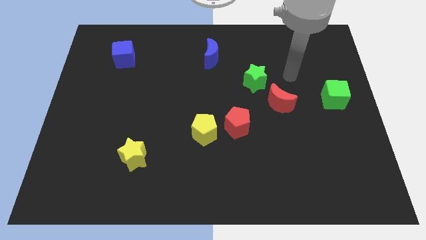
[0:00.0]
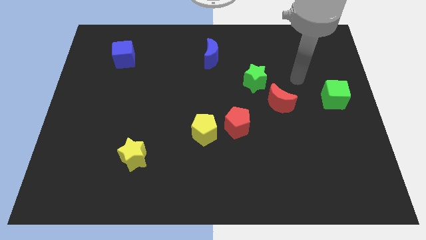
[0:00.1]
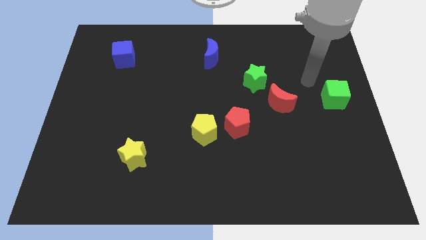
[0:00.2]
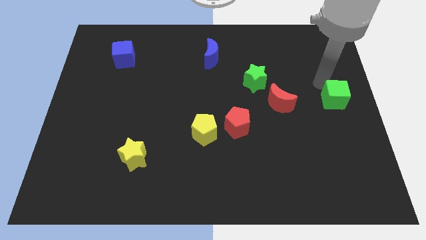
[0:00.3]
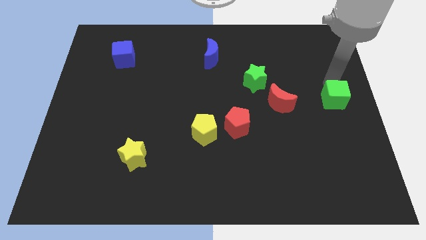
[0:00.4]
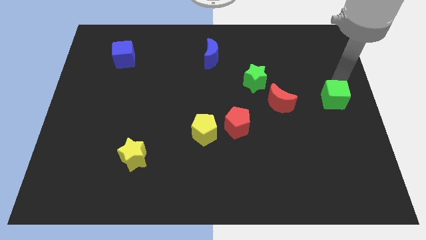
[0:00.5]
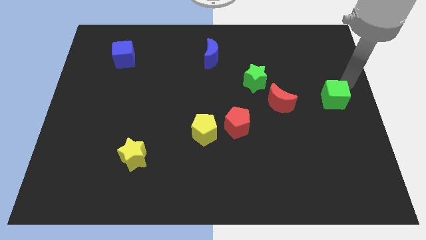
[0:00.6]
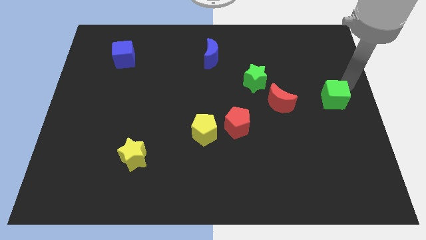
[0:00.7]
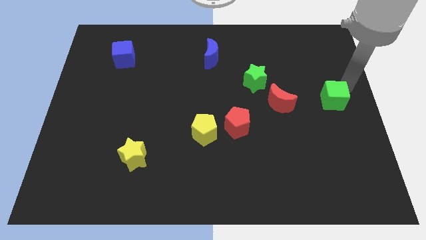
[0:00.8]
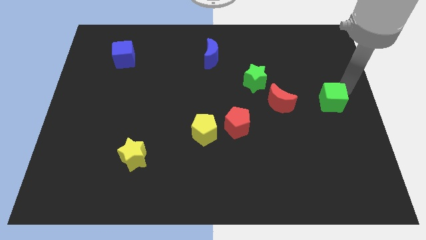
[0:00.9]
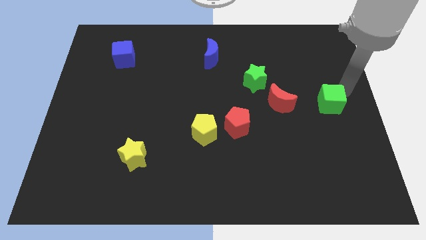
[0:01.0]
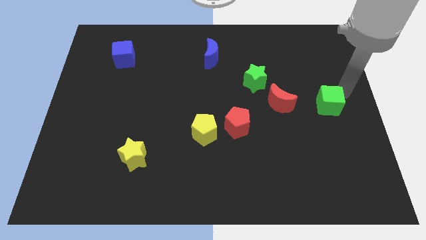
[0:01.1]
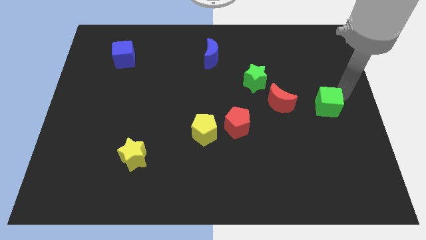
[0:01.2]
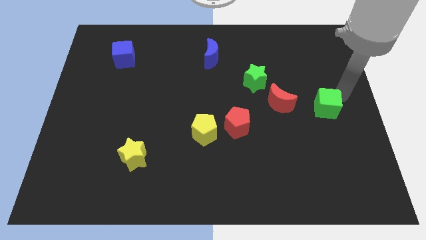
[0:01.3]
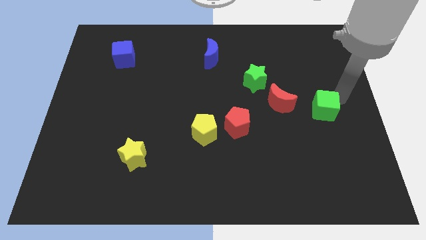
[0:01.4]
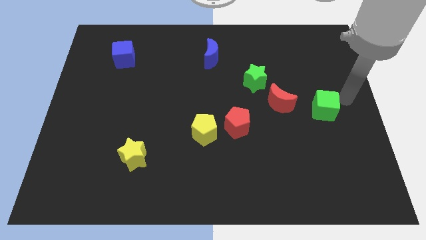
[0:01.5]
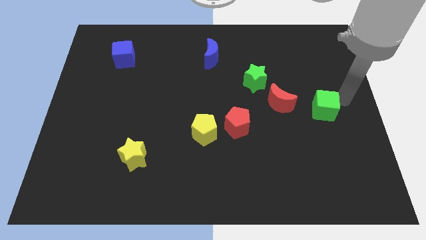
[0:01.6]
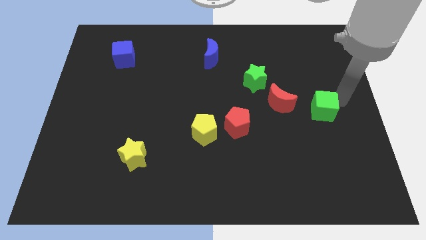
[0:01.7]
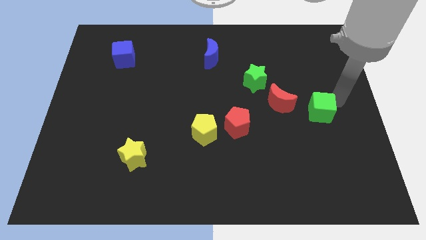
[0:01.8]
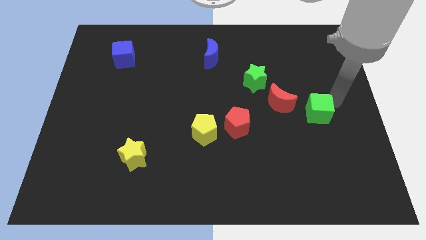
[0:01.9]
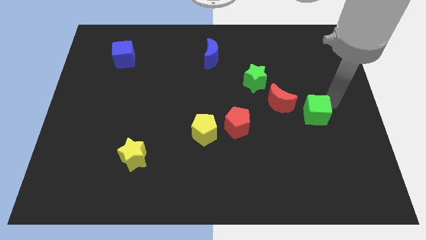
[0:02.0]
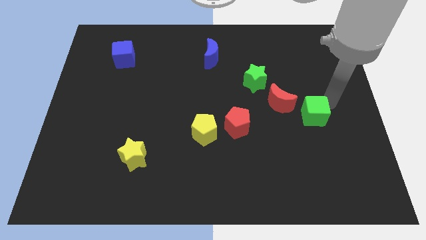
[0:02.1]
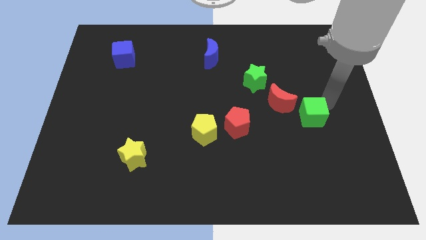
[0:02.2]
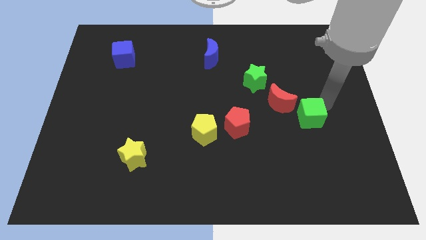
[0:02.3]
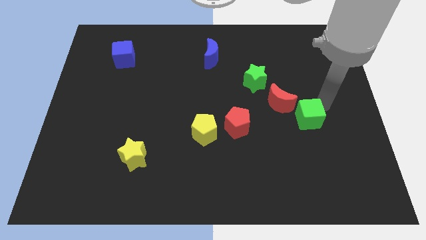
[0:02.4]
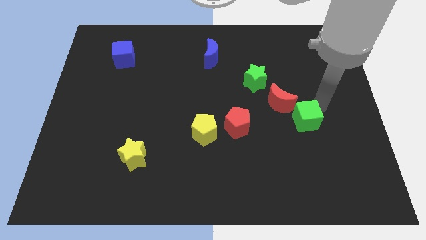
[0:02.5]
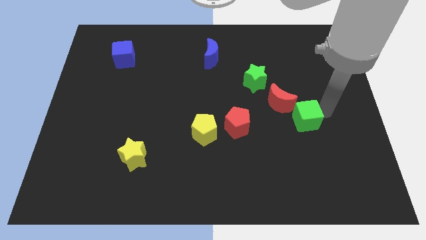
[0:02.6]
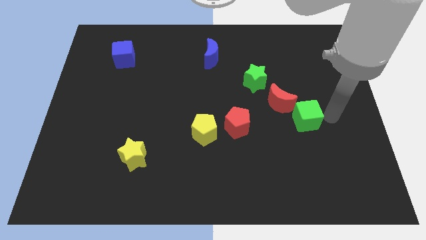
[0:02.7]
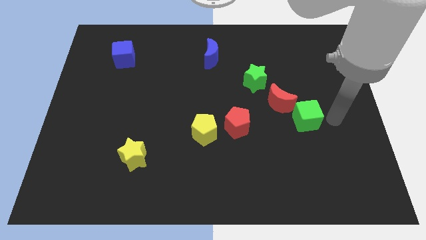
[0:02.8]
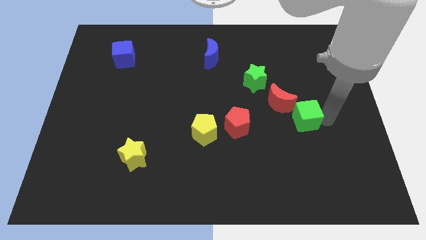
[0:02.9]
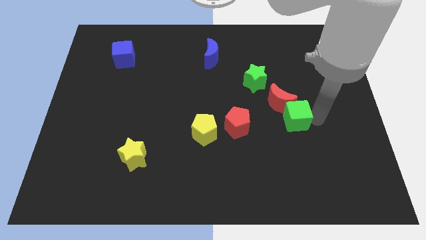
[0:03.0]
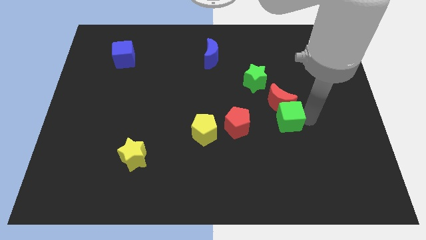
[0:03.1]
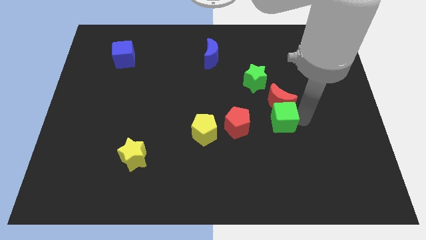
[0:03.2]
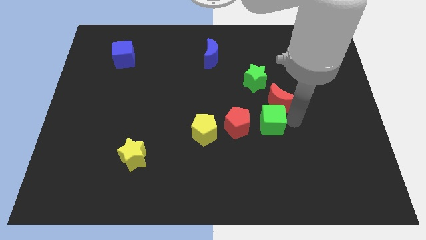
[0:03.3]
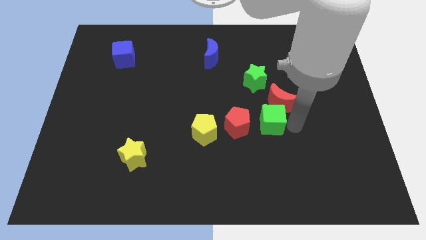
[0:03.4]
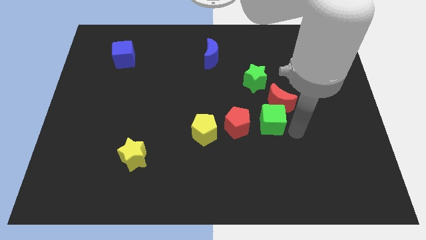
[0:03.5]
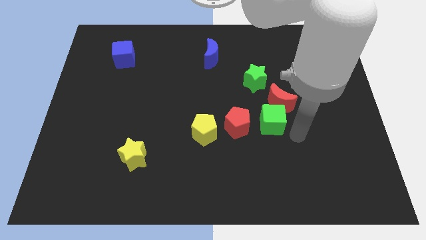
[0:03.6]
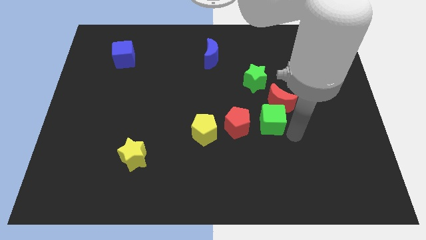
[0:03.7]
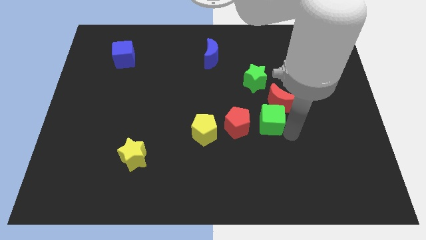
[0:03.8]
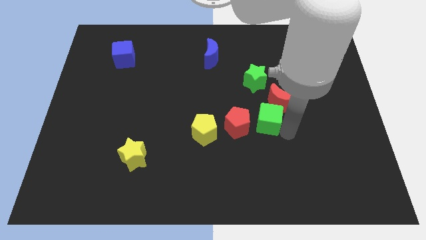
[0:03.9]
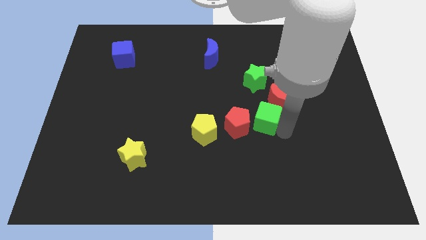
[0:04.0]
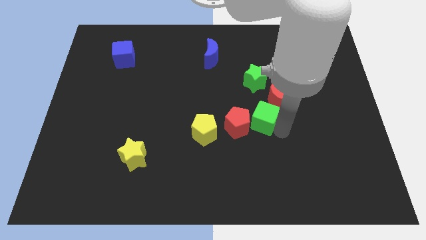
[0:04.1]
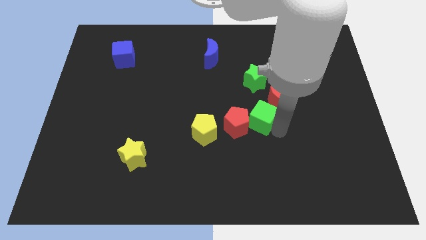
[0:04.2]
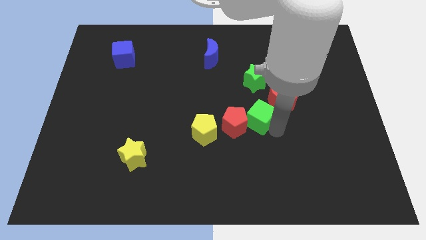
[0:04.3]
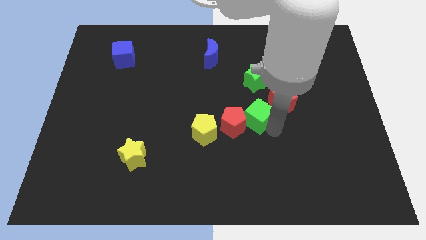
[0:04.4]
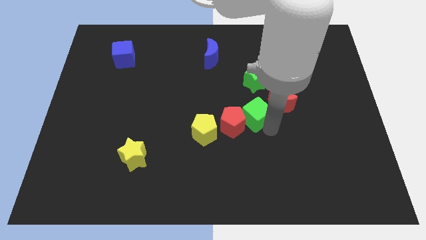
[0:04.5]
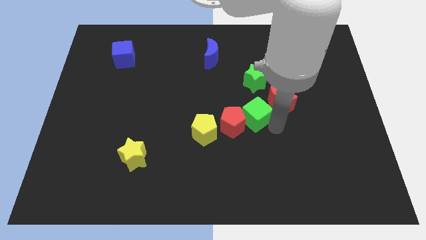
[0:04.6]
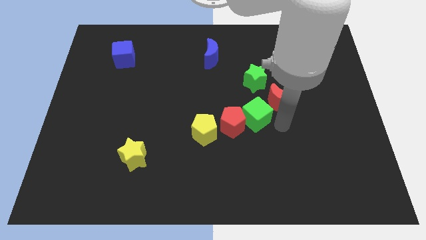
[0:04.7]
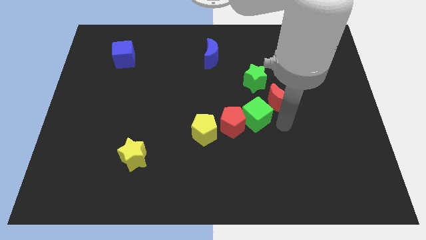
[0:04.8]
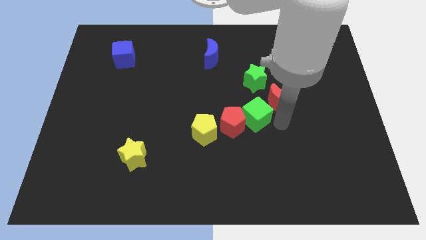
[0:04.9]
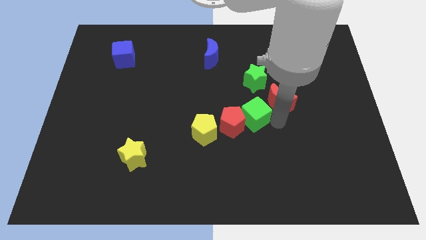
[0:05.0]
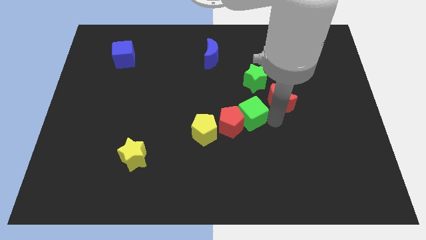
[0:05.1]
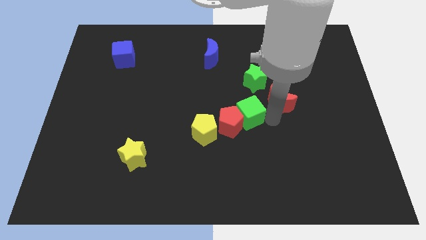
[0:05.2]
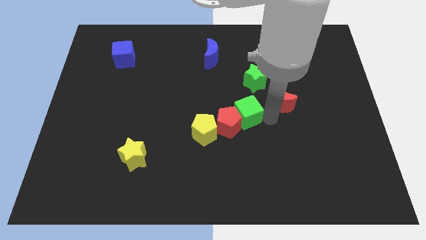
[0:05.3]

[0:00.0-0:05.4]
push the green cube to the left

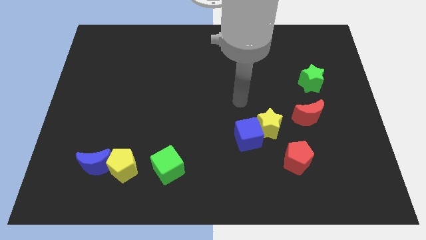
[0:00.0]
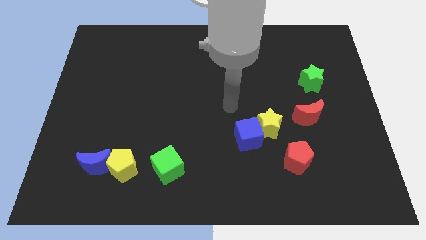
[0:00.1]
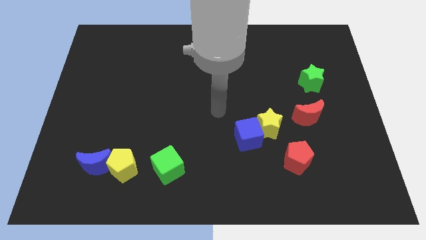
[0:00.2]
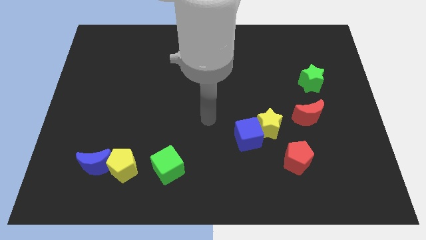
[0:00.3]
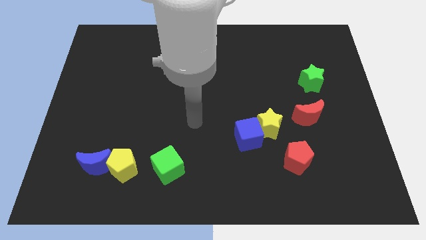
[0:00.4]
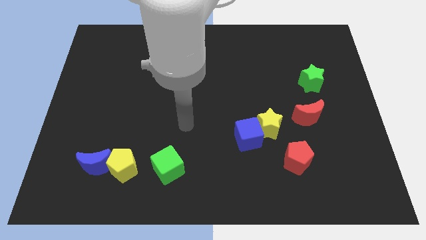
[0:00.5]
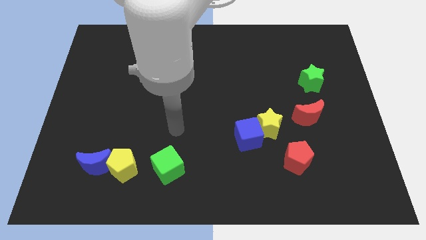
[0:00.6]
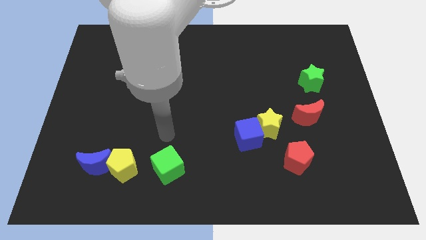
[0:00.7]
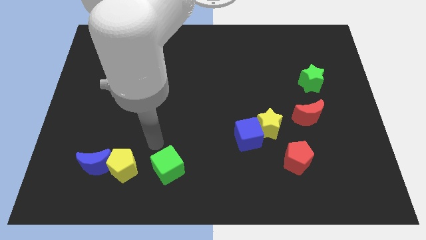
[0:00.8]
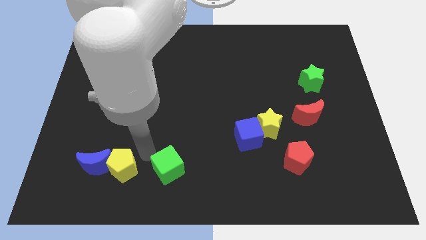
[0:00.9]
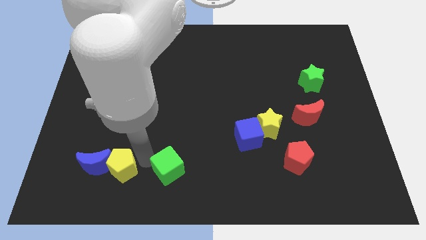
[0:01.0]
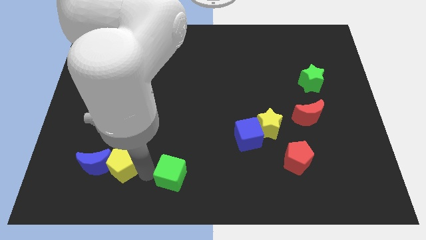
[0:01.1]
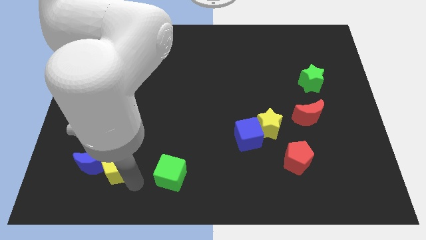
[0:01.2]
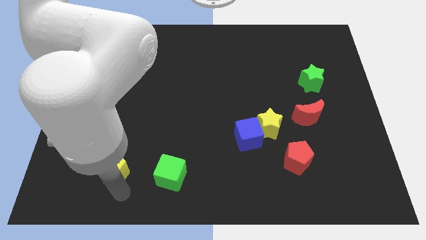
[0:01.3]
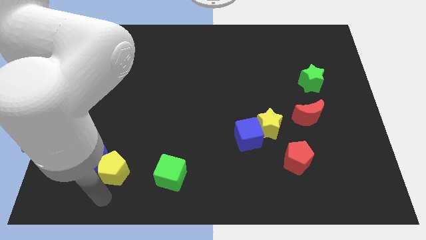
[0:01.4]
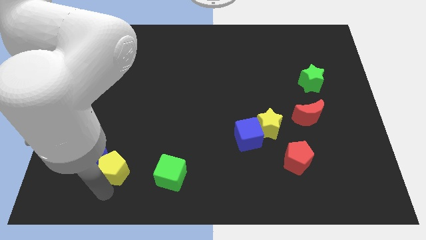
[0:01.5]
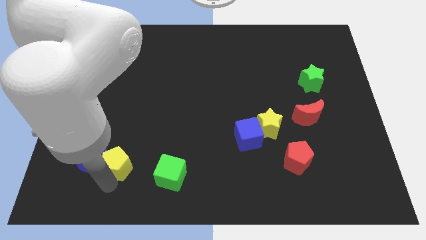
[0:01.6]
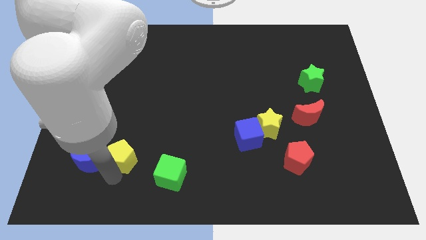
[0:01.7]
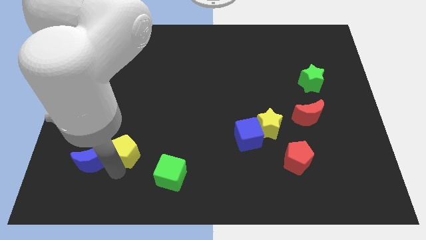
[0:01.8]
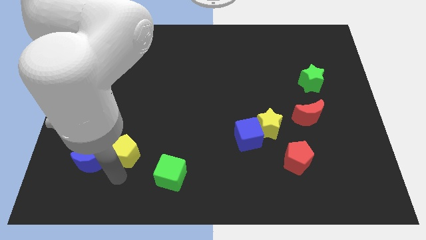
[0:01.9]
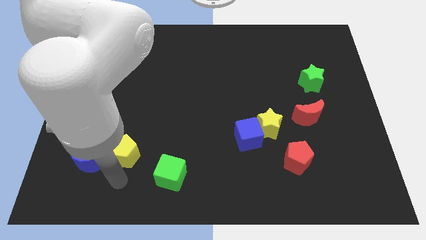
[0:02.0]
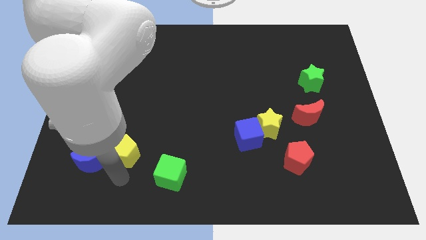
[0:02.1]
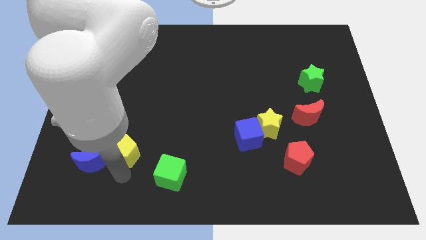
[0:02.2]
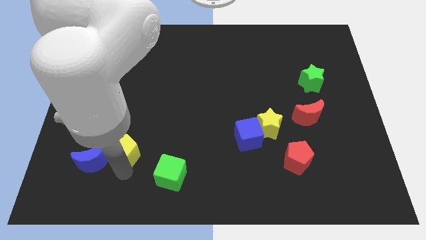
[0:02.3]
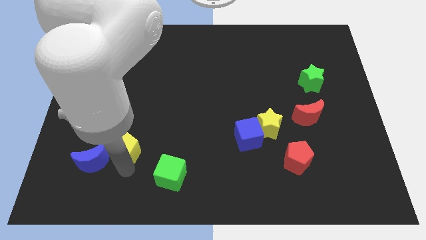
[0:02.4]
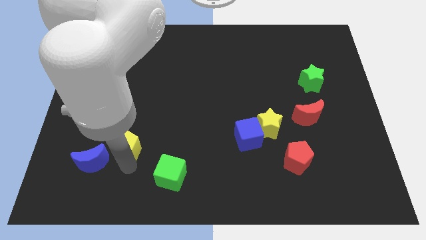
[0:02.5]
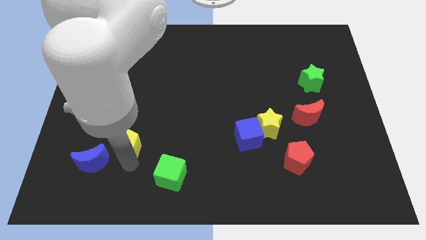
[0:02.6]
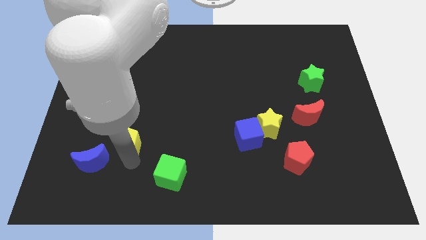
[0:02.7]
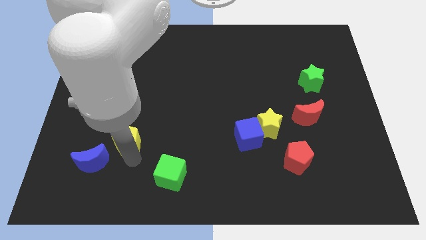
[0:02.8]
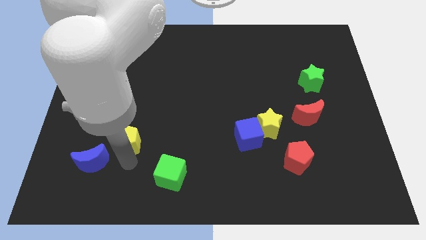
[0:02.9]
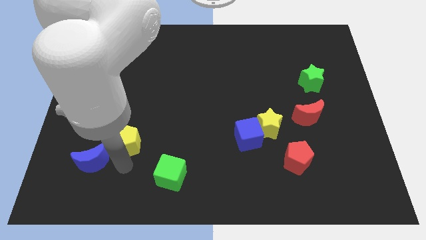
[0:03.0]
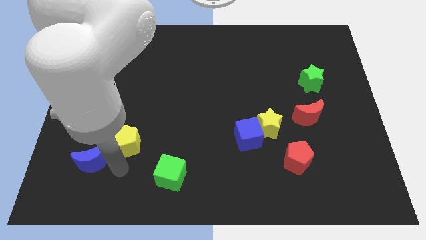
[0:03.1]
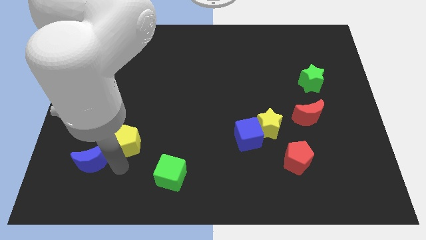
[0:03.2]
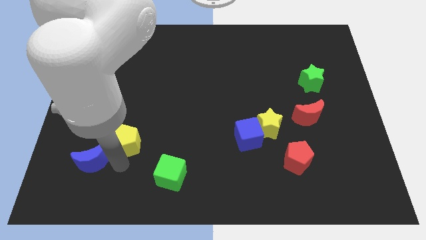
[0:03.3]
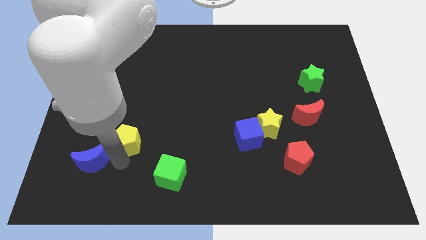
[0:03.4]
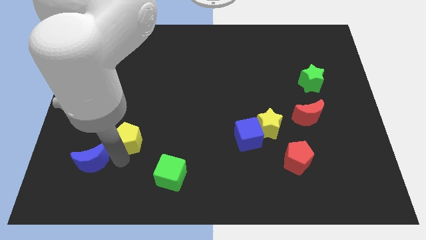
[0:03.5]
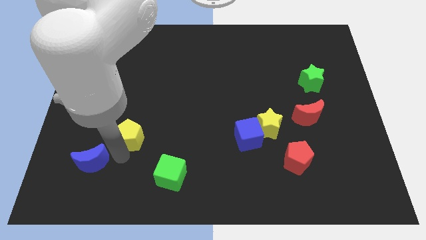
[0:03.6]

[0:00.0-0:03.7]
slide the yellow pentagon up a bit
